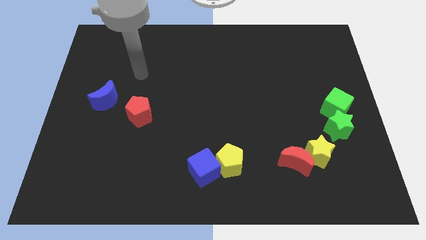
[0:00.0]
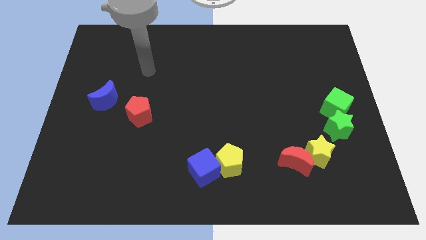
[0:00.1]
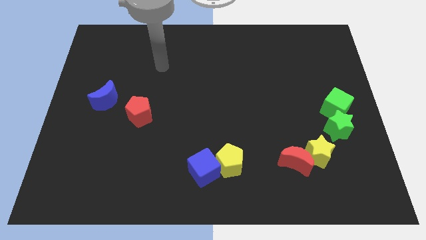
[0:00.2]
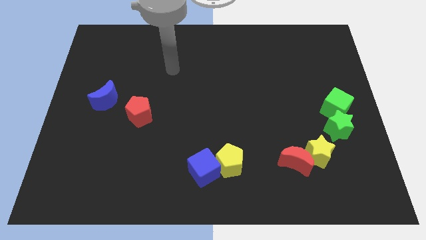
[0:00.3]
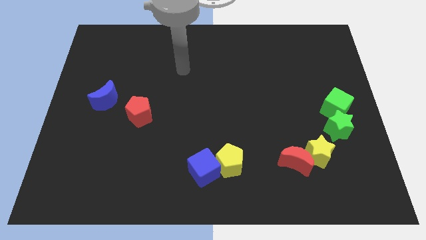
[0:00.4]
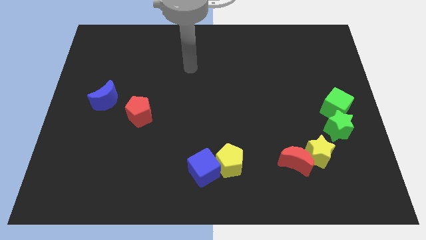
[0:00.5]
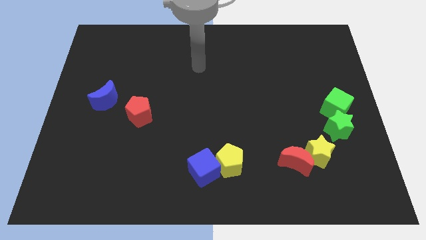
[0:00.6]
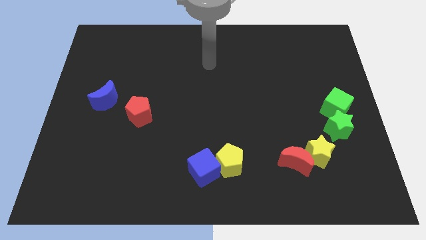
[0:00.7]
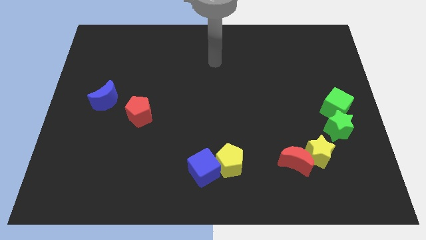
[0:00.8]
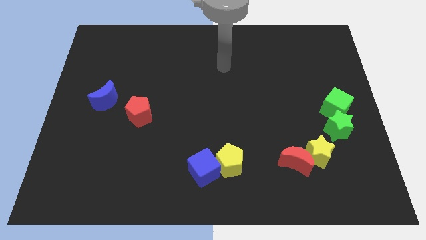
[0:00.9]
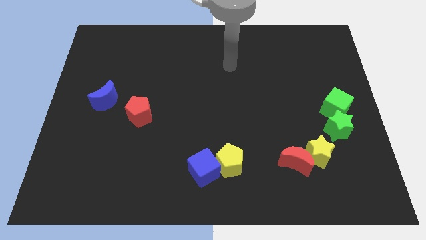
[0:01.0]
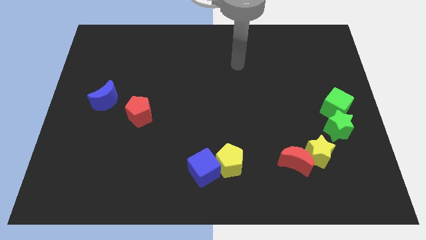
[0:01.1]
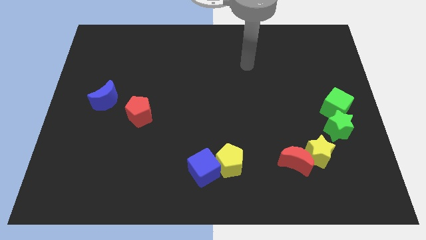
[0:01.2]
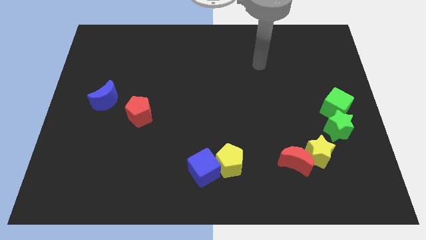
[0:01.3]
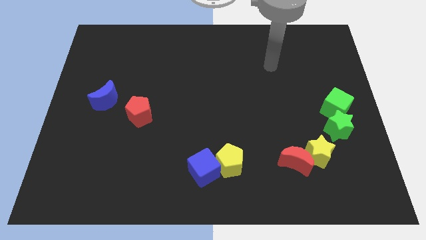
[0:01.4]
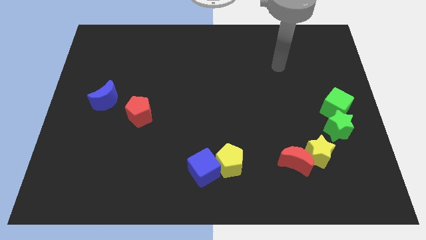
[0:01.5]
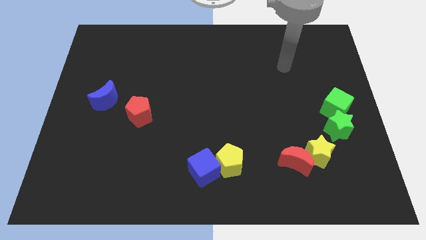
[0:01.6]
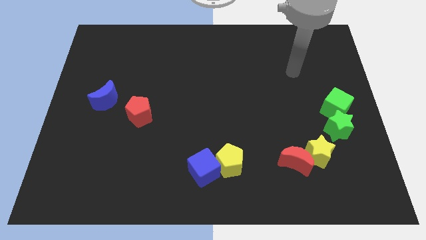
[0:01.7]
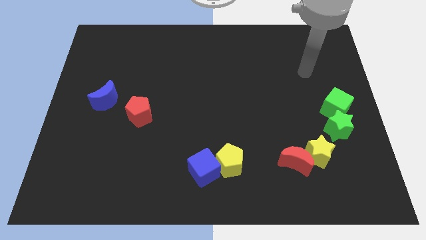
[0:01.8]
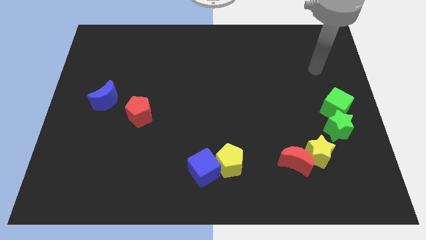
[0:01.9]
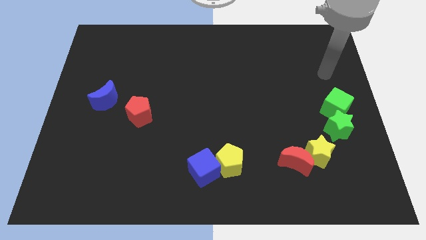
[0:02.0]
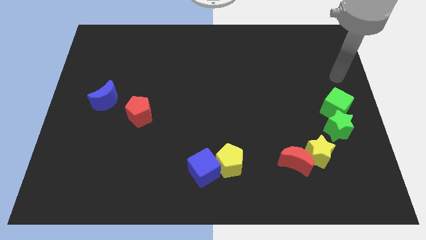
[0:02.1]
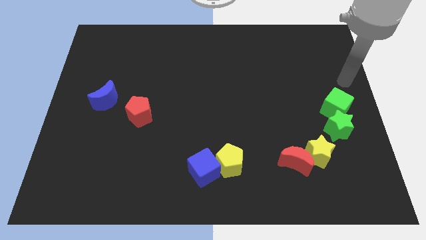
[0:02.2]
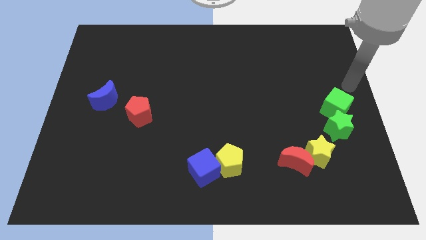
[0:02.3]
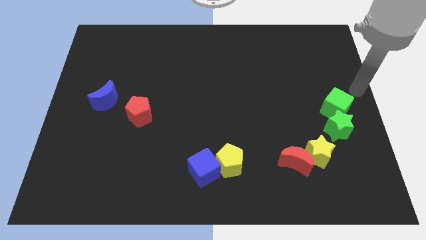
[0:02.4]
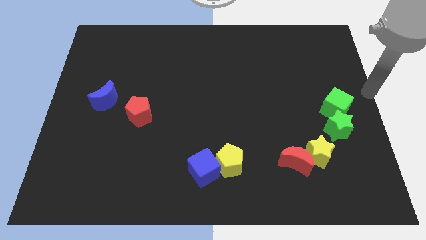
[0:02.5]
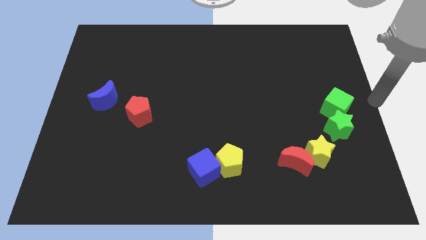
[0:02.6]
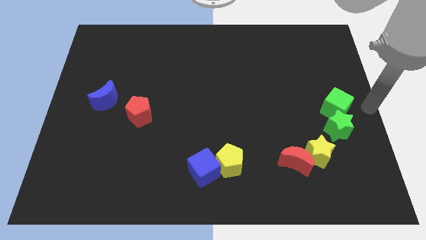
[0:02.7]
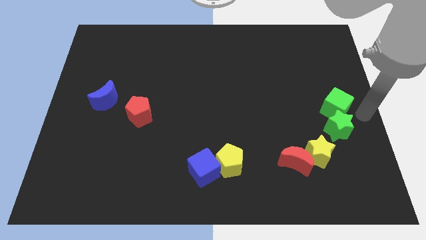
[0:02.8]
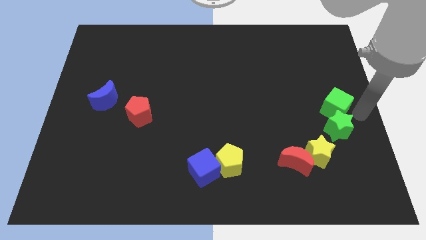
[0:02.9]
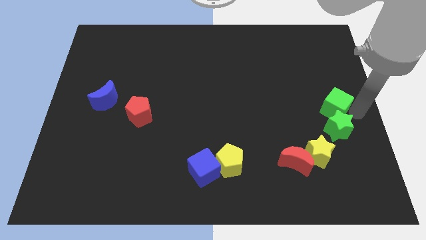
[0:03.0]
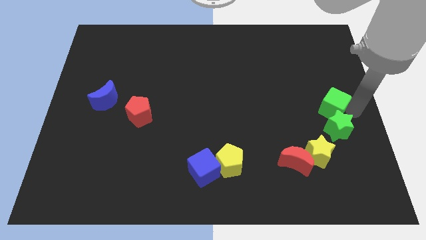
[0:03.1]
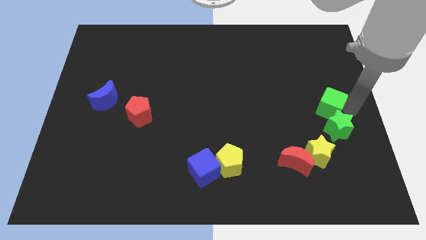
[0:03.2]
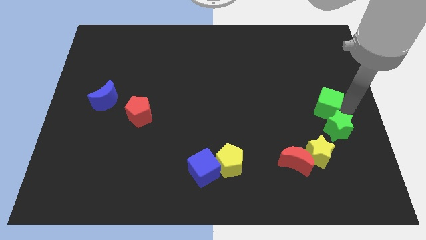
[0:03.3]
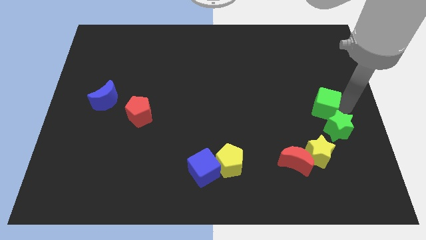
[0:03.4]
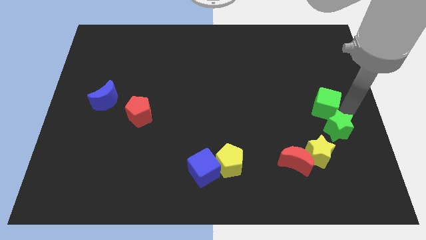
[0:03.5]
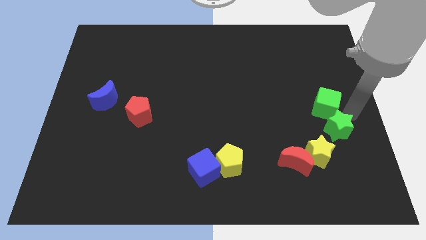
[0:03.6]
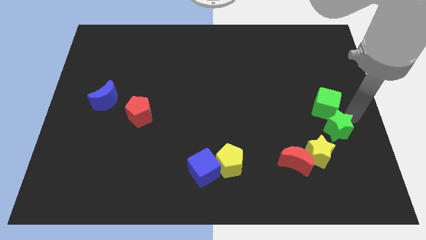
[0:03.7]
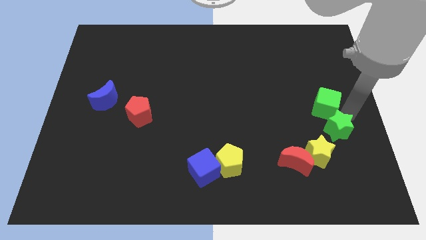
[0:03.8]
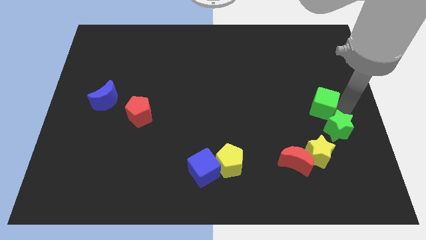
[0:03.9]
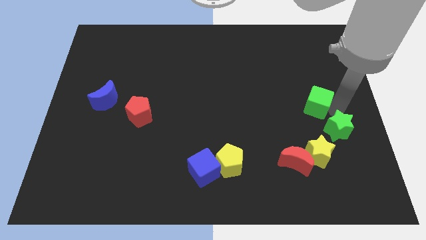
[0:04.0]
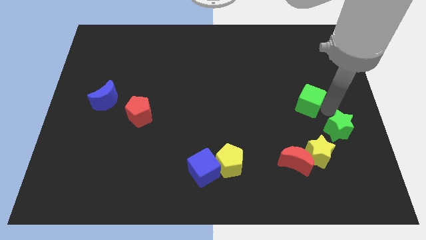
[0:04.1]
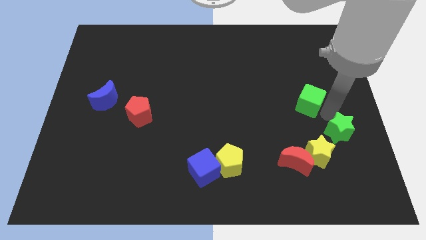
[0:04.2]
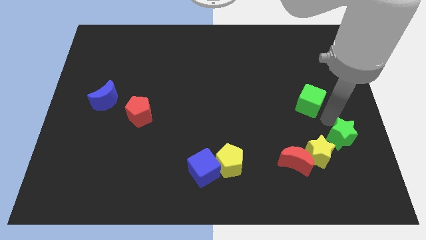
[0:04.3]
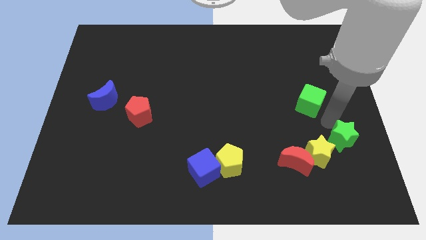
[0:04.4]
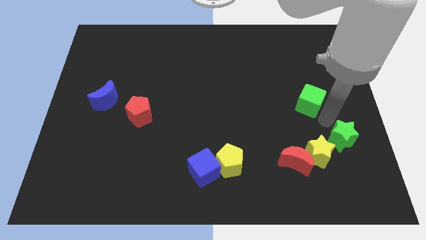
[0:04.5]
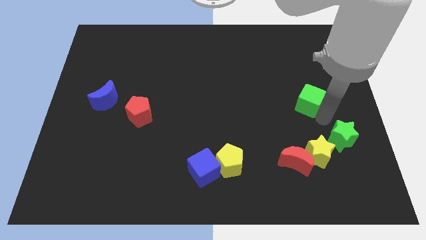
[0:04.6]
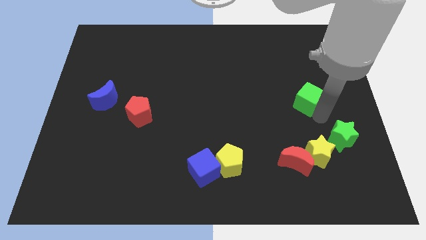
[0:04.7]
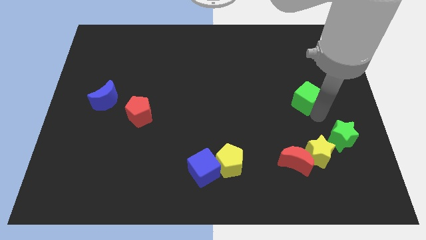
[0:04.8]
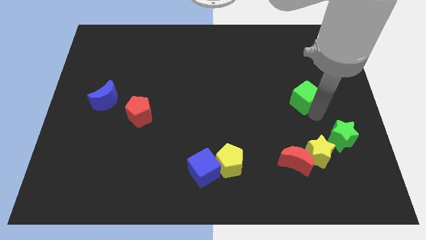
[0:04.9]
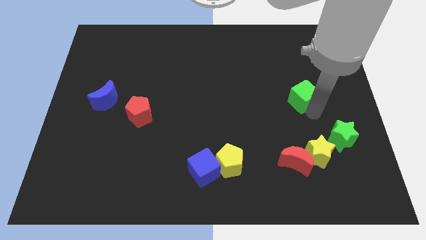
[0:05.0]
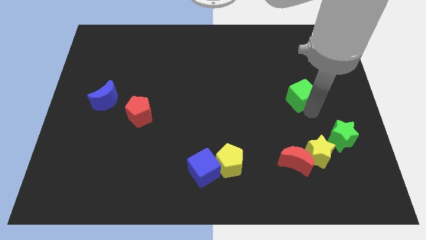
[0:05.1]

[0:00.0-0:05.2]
move the green cube a little bit up and then left

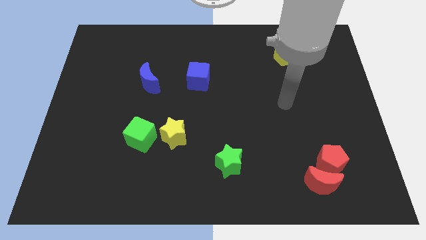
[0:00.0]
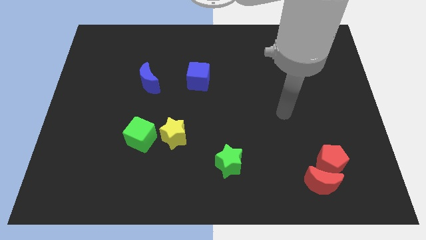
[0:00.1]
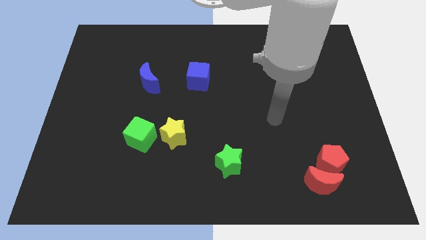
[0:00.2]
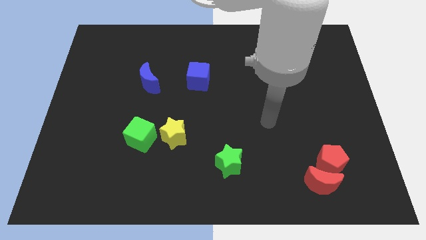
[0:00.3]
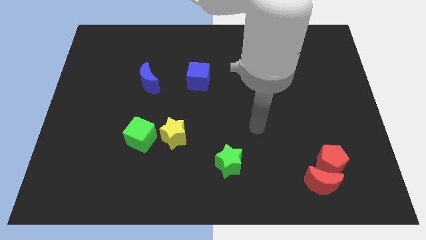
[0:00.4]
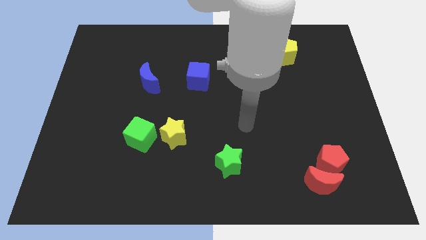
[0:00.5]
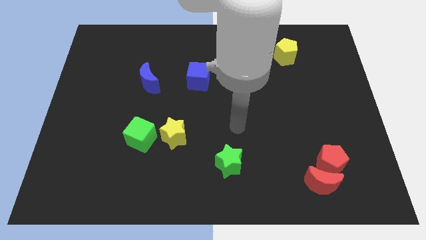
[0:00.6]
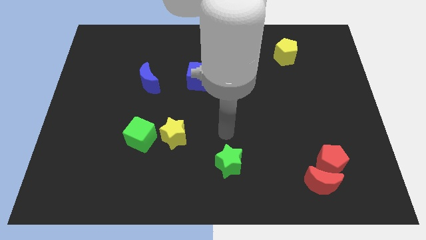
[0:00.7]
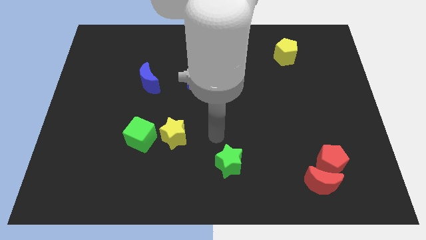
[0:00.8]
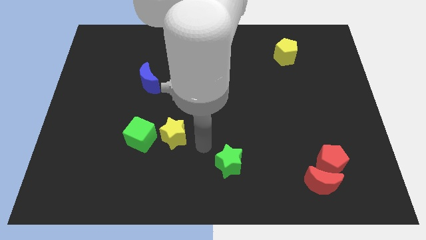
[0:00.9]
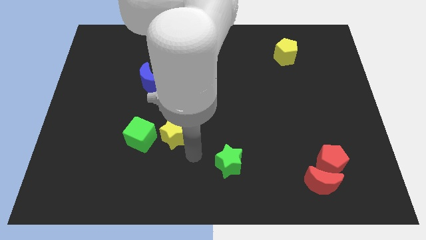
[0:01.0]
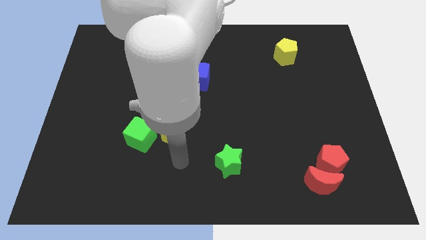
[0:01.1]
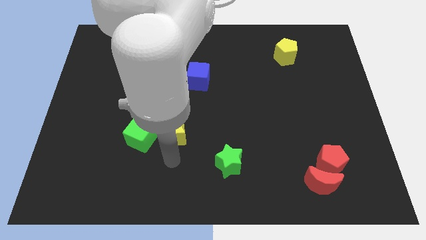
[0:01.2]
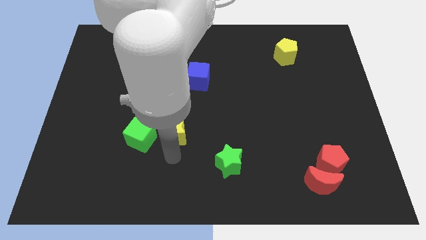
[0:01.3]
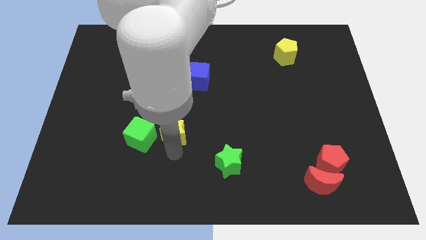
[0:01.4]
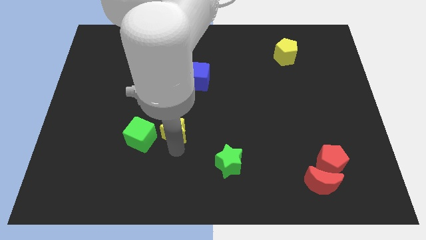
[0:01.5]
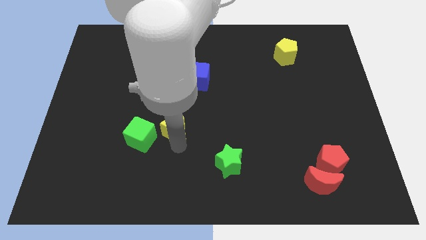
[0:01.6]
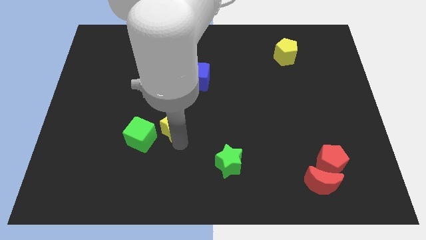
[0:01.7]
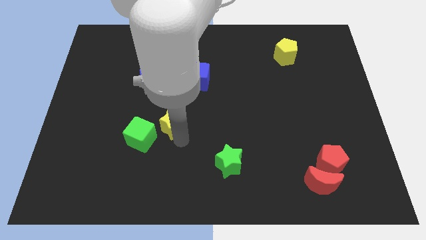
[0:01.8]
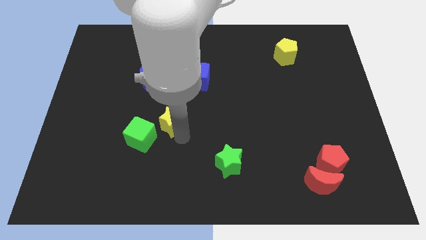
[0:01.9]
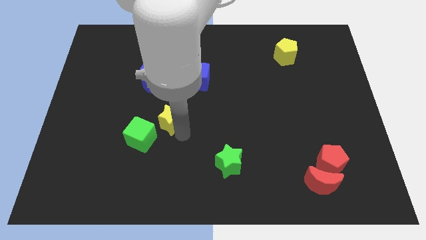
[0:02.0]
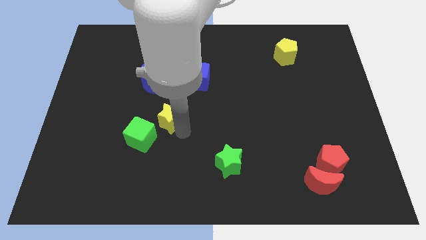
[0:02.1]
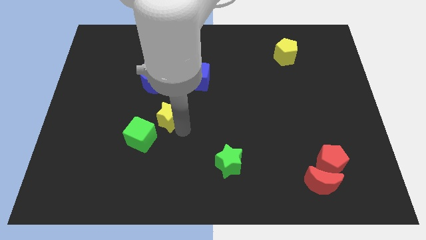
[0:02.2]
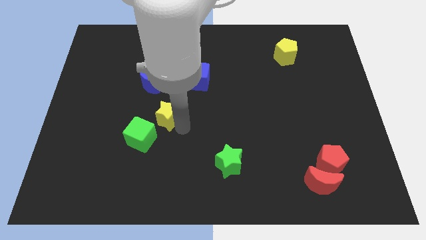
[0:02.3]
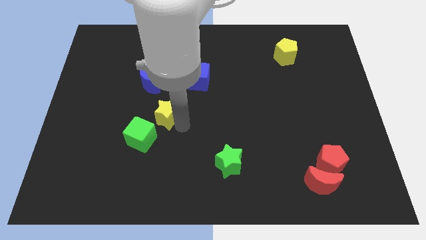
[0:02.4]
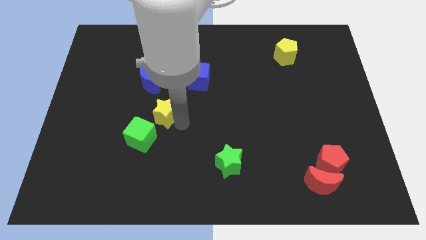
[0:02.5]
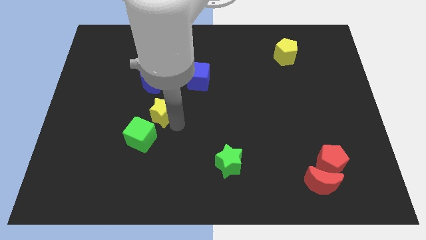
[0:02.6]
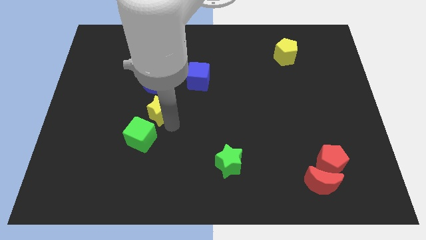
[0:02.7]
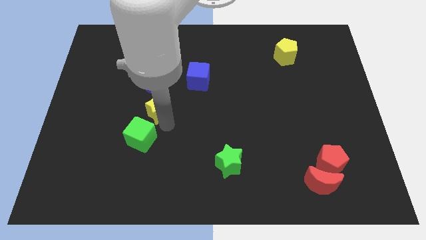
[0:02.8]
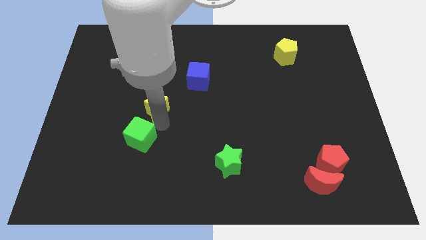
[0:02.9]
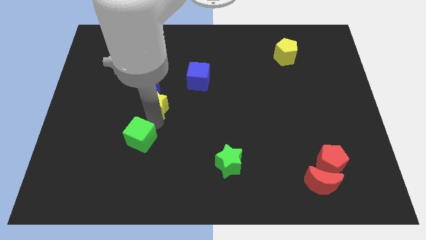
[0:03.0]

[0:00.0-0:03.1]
slightly slide the yellow star upwards

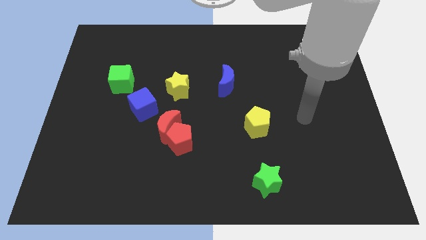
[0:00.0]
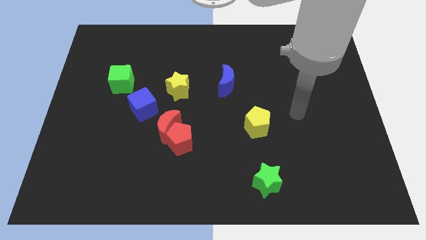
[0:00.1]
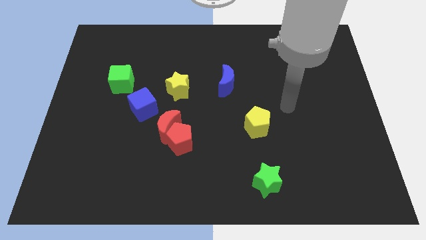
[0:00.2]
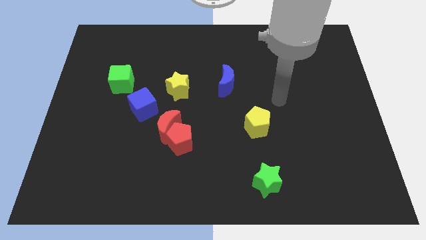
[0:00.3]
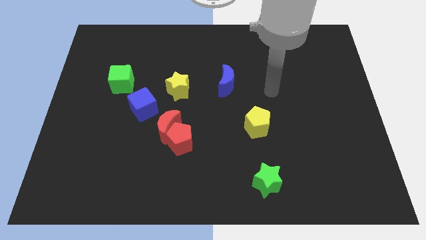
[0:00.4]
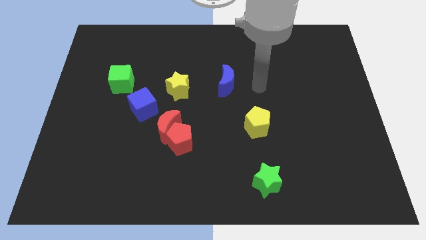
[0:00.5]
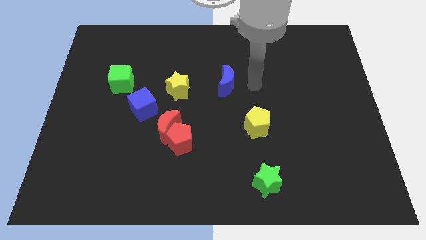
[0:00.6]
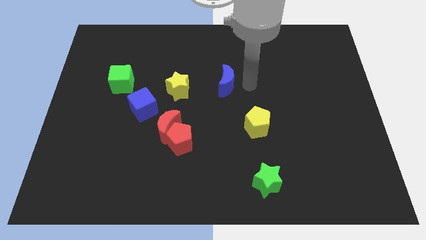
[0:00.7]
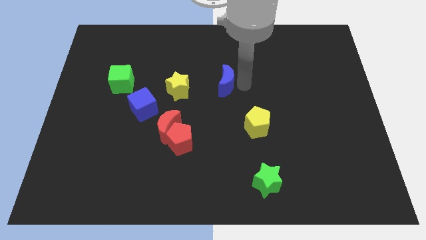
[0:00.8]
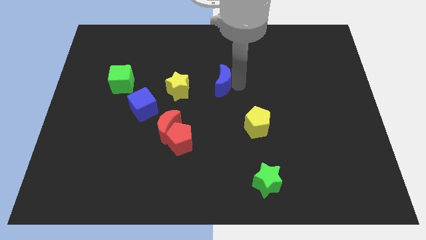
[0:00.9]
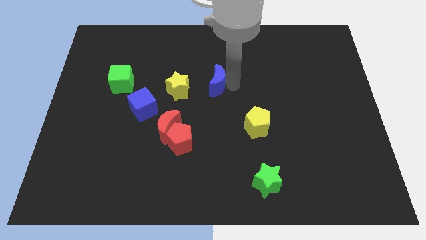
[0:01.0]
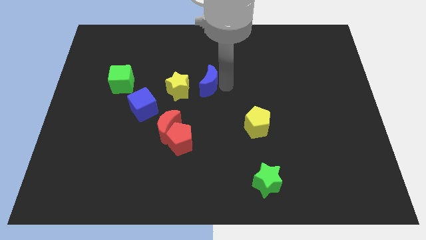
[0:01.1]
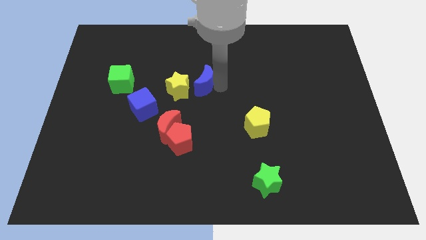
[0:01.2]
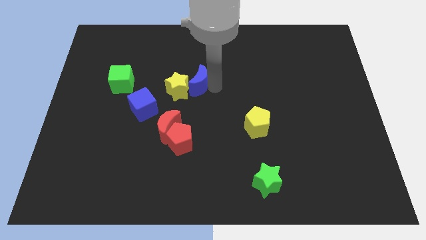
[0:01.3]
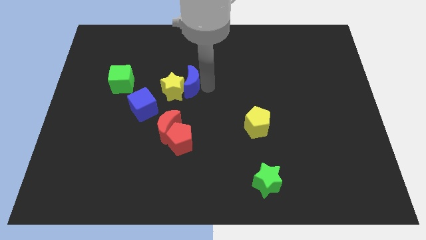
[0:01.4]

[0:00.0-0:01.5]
slightly slide the blue moon to the left
